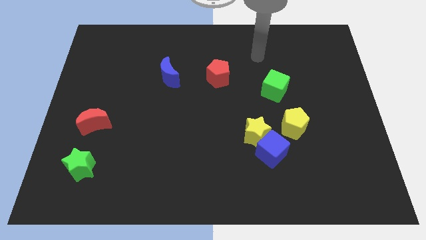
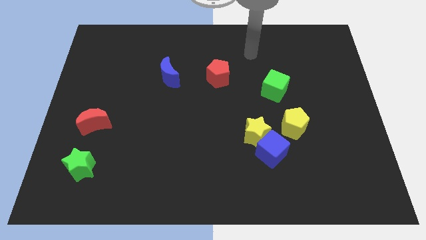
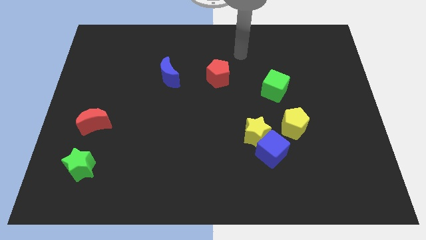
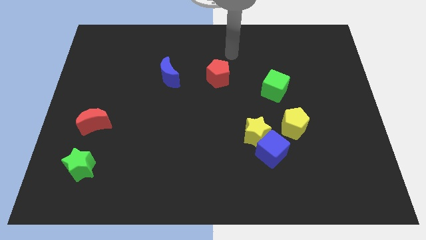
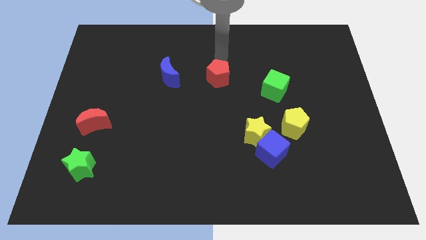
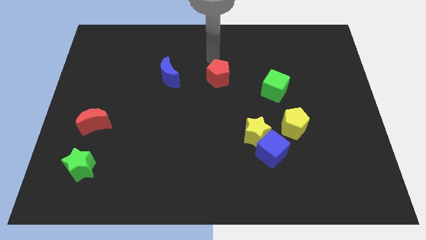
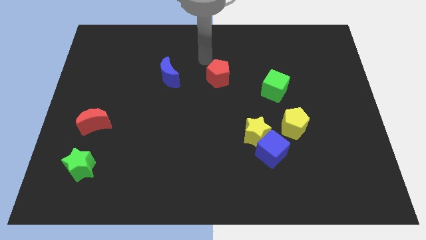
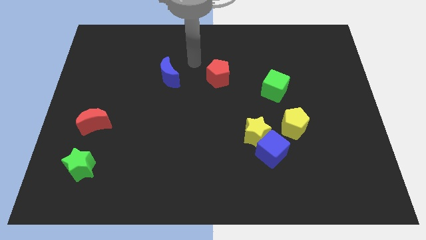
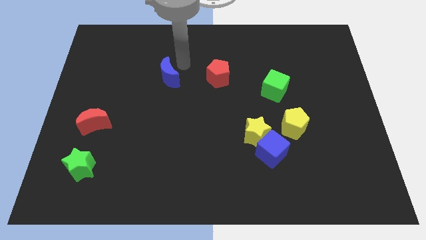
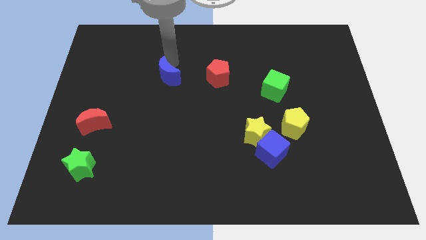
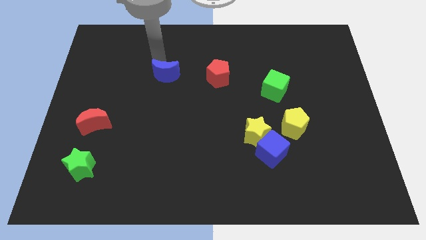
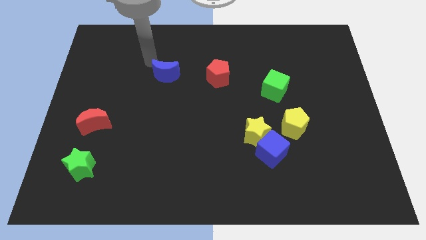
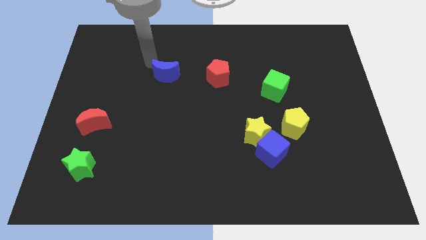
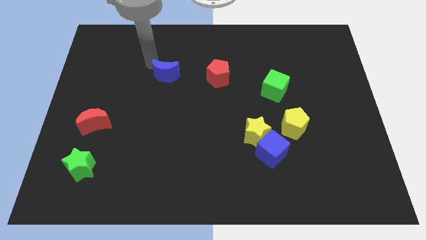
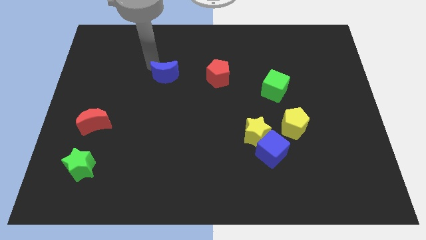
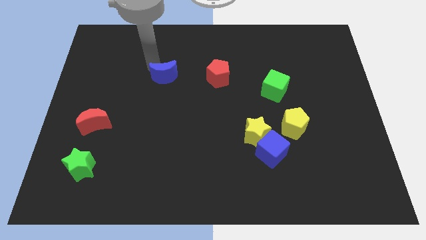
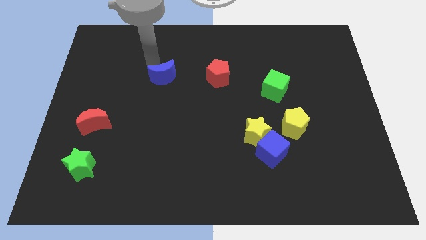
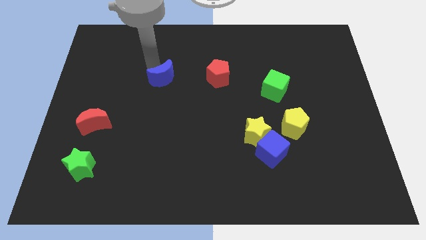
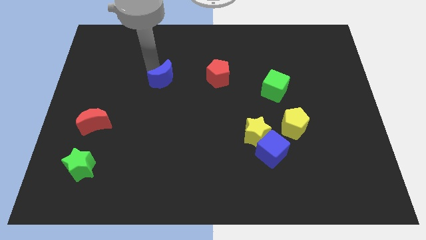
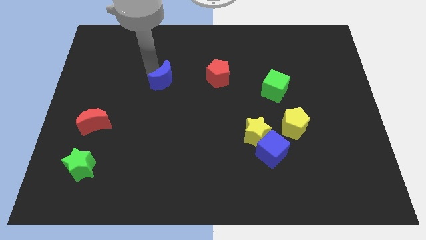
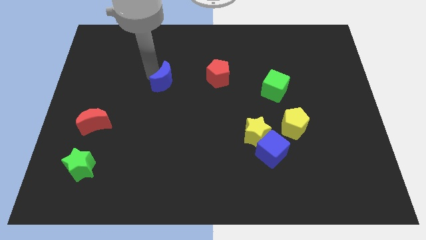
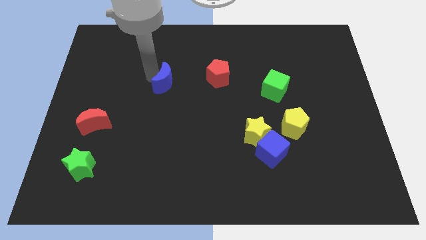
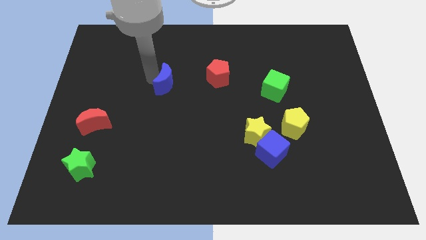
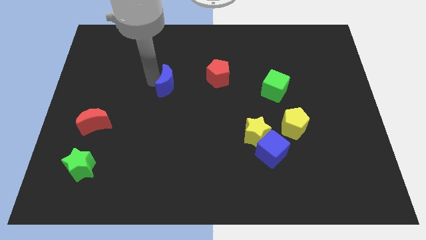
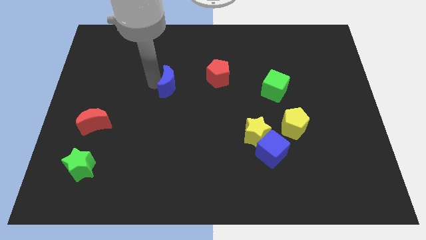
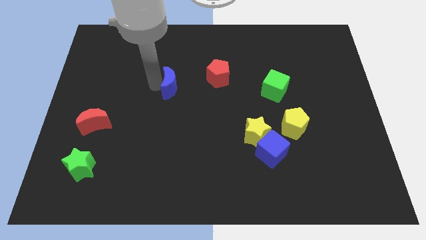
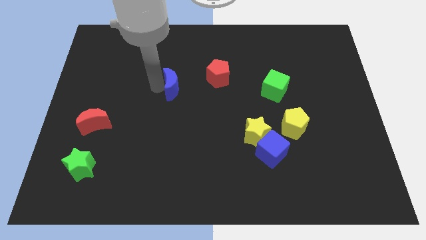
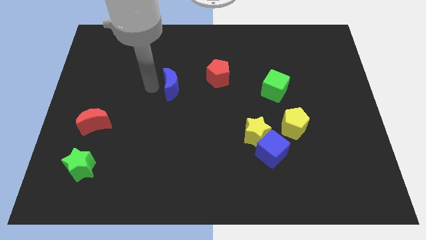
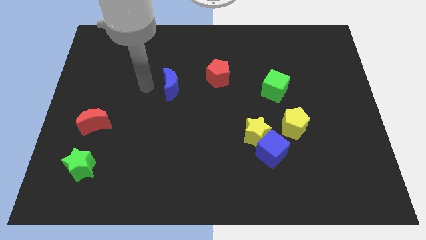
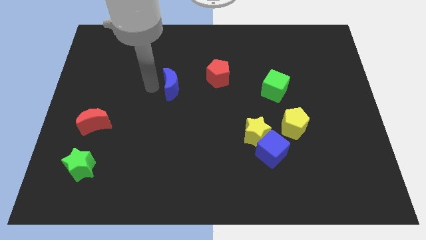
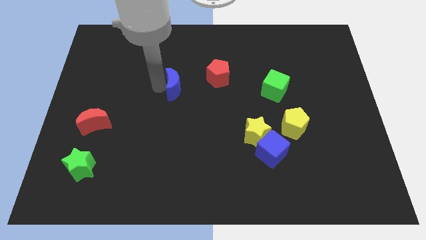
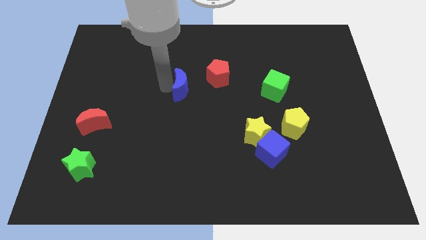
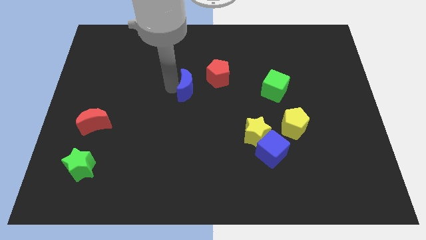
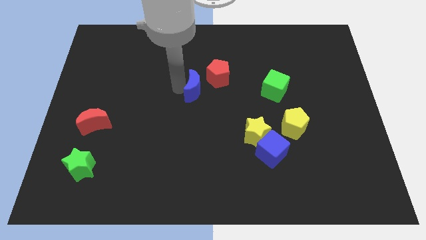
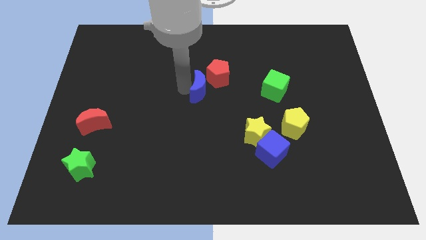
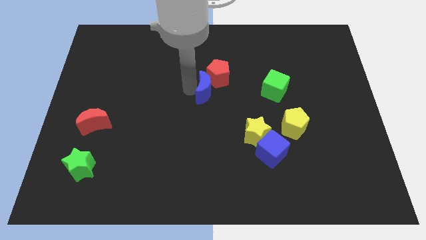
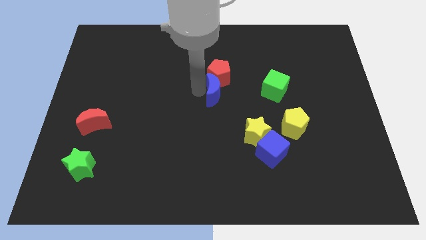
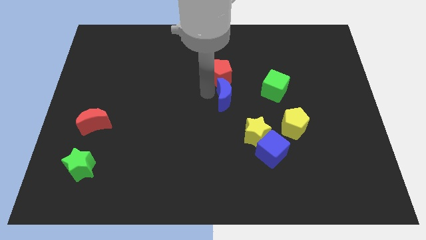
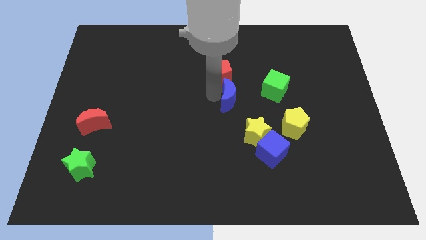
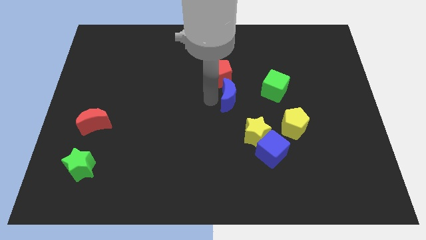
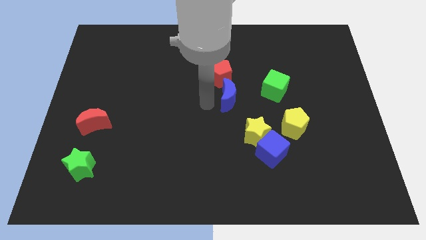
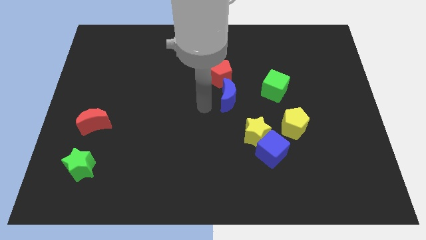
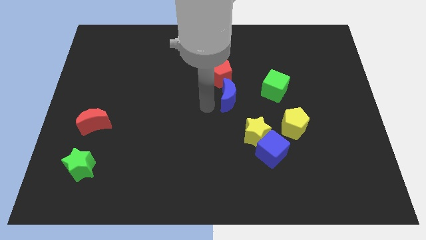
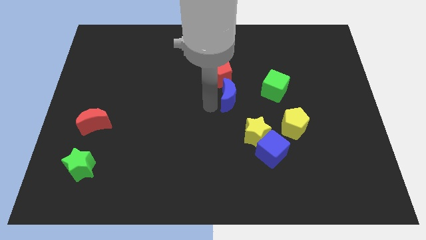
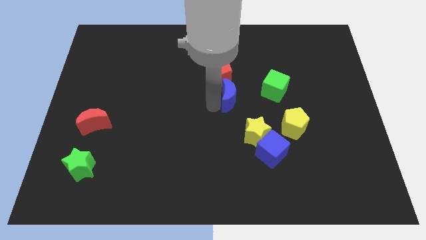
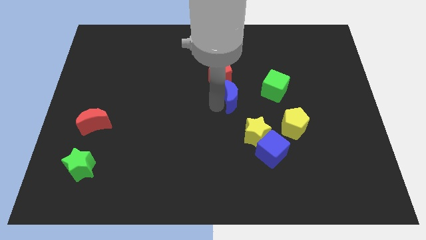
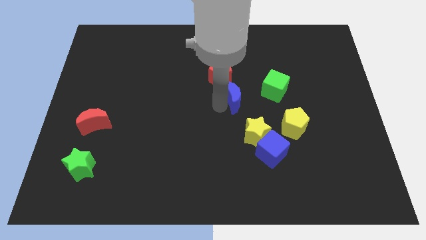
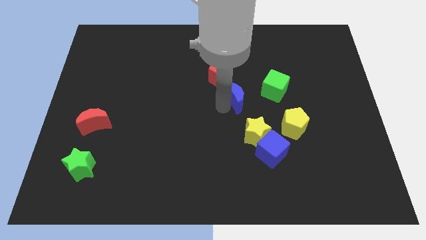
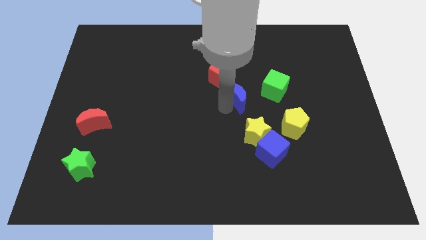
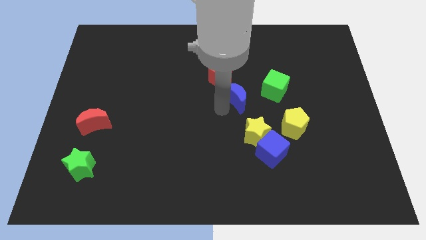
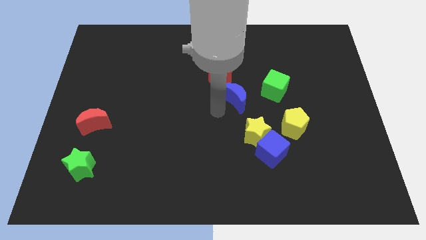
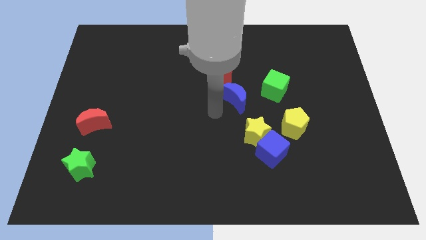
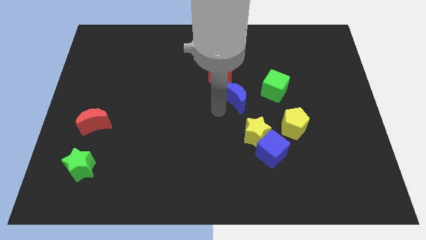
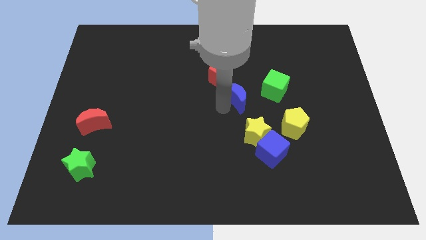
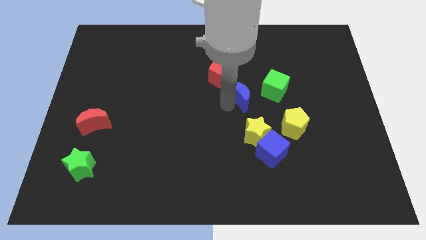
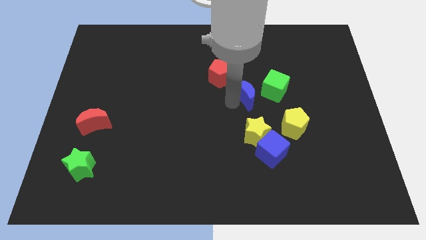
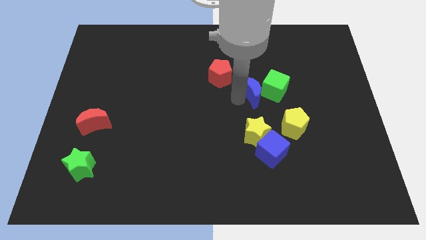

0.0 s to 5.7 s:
put the blue moon close to the green cube

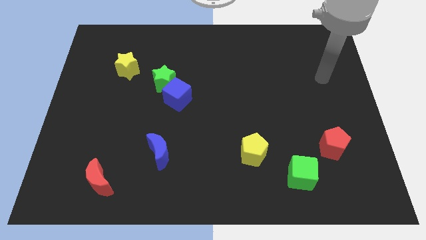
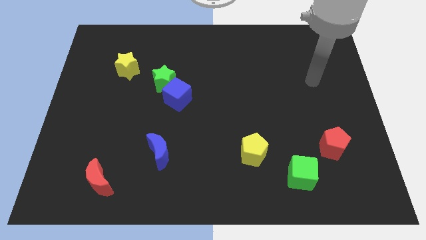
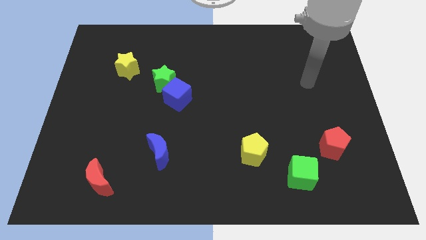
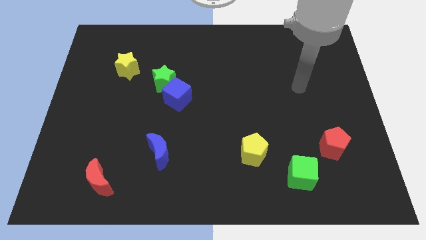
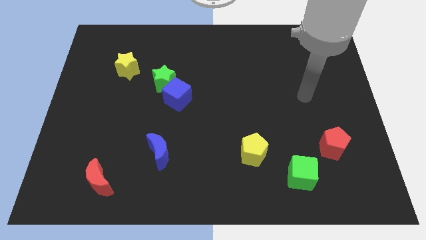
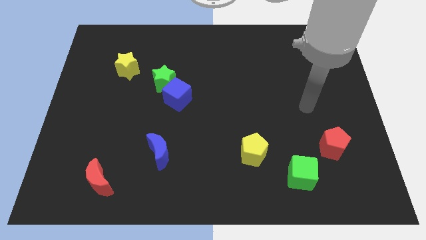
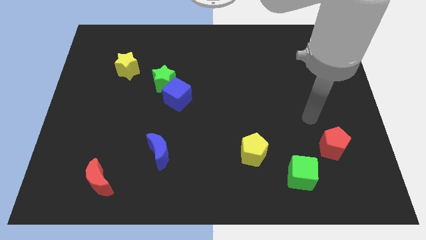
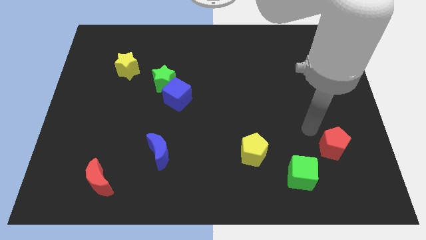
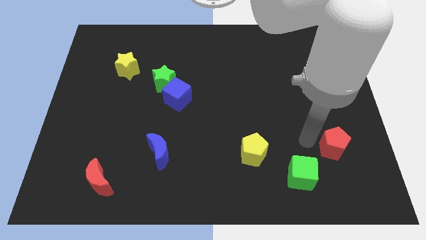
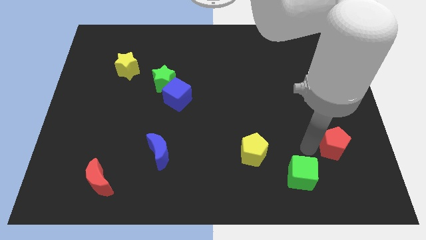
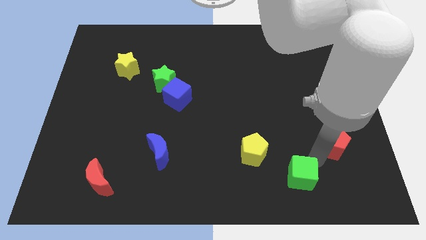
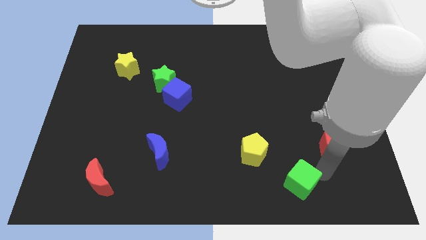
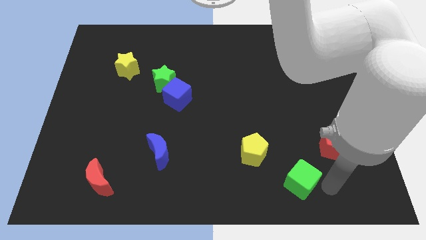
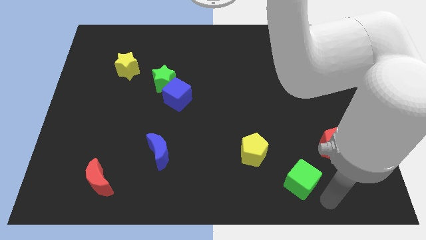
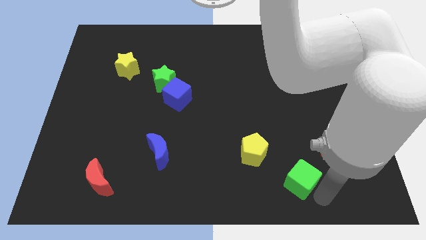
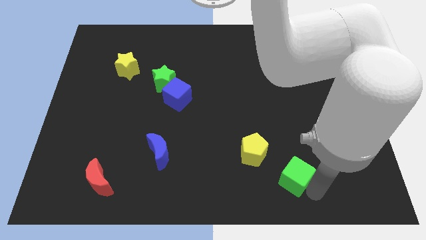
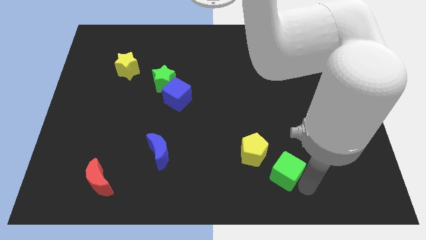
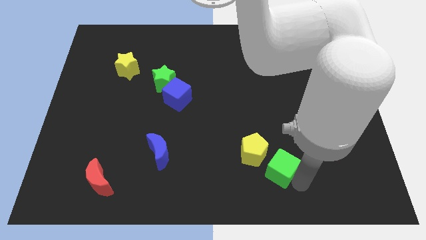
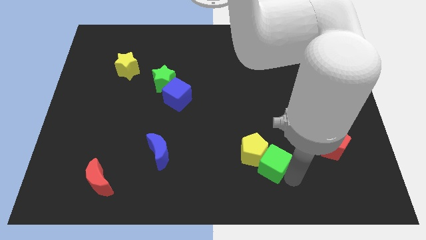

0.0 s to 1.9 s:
push the green cube close to the yellow pentagon
